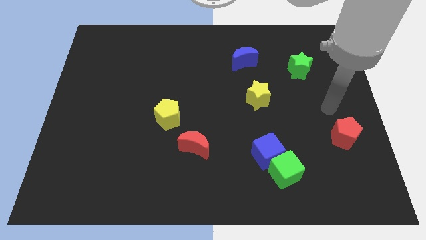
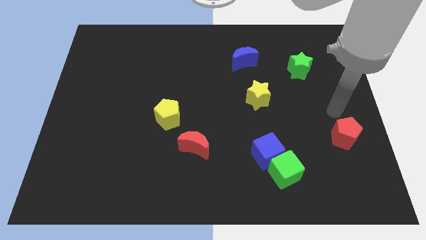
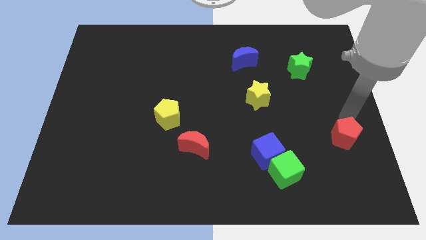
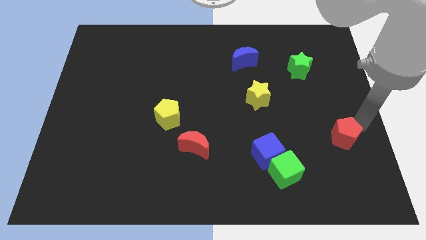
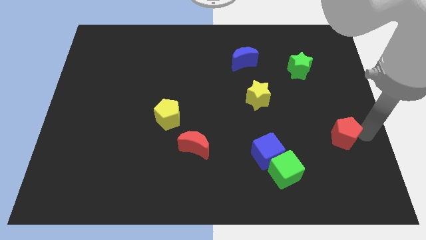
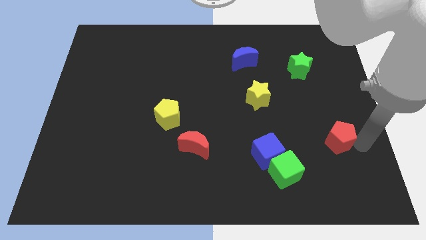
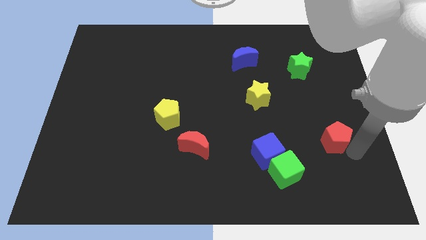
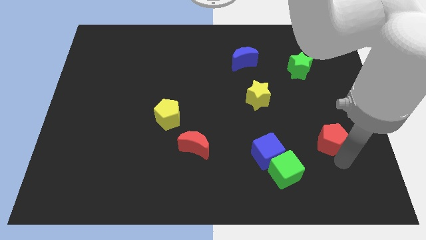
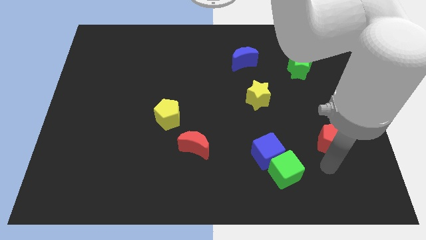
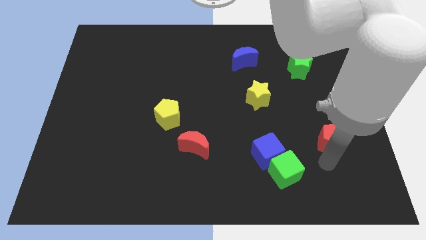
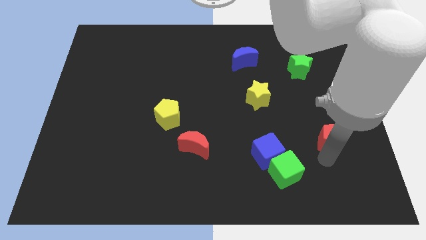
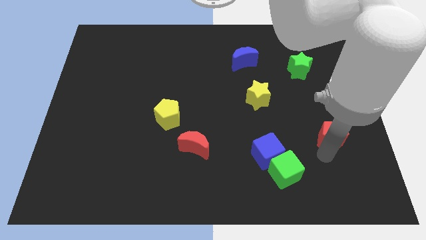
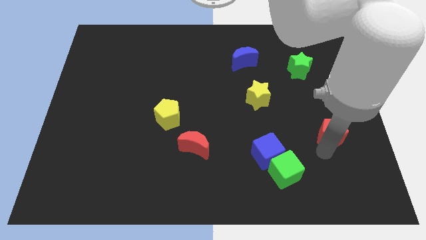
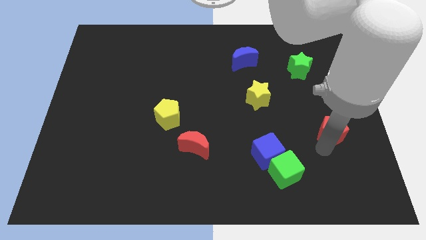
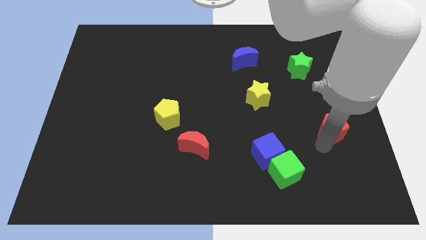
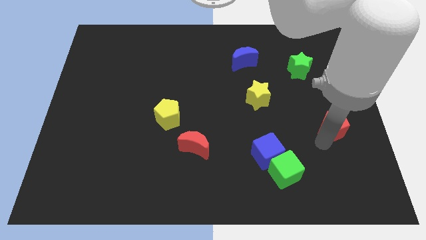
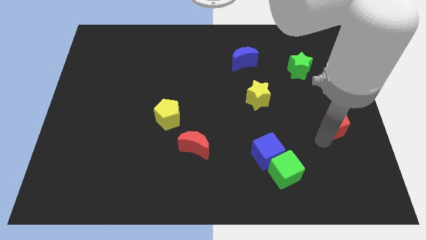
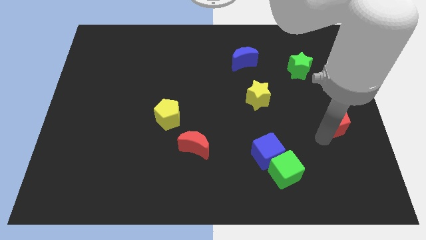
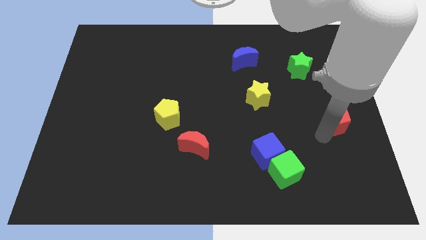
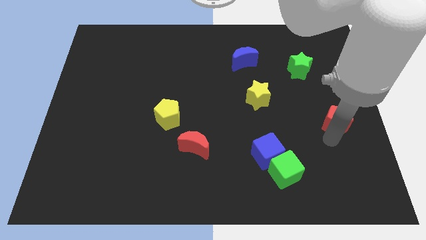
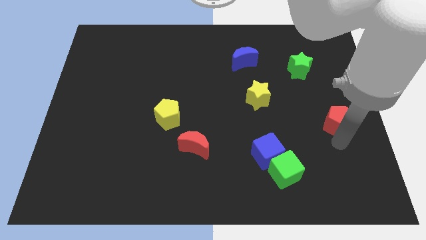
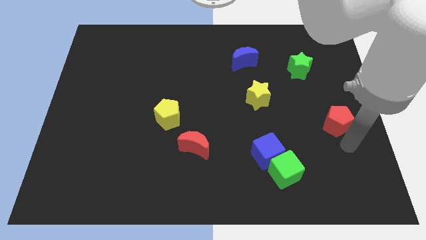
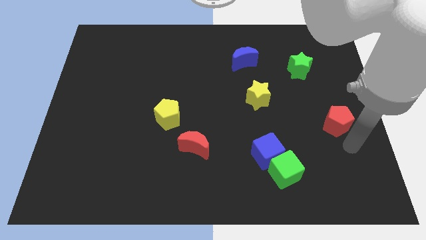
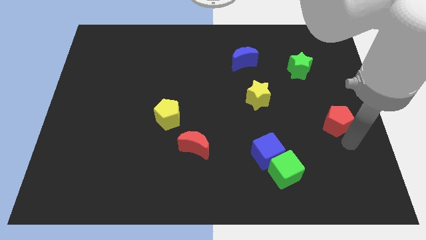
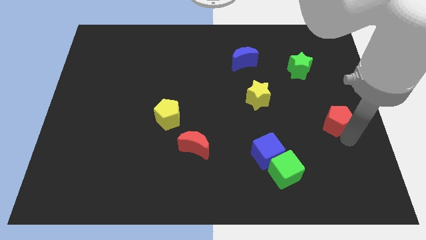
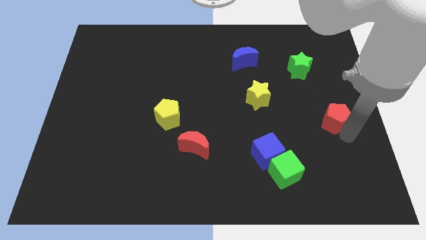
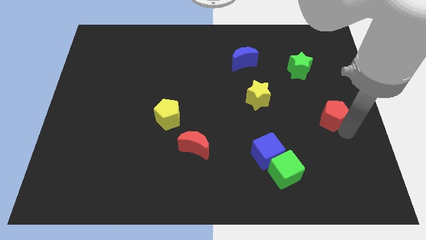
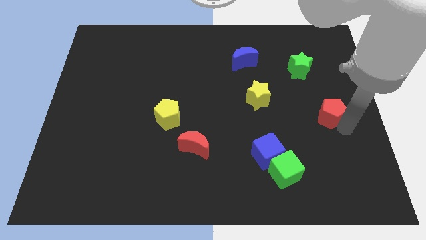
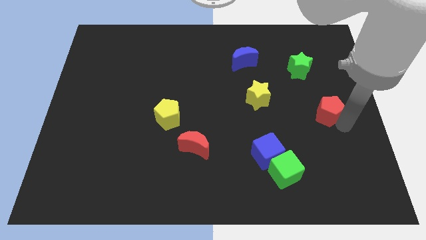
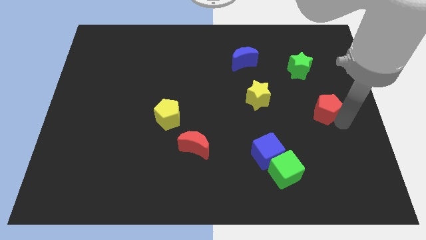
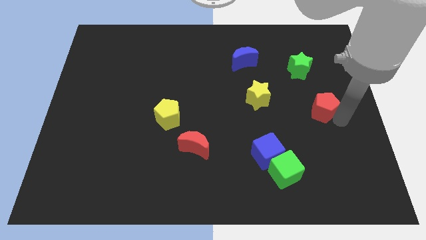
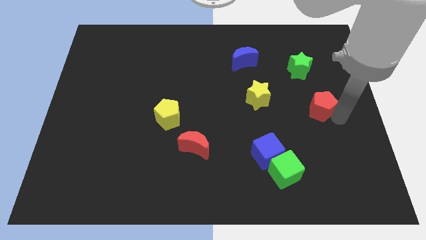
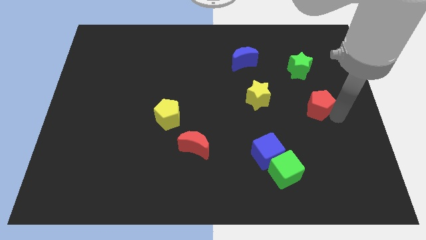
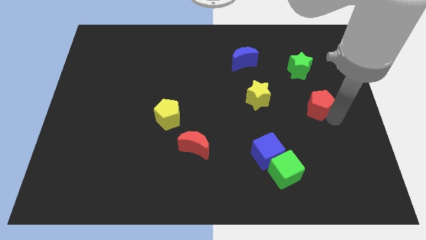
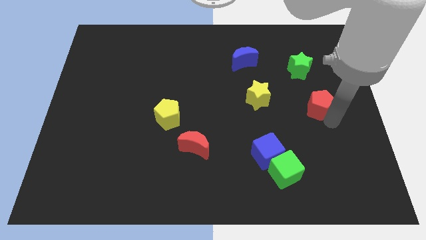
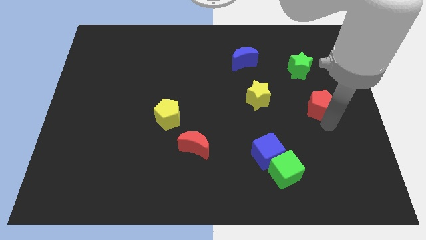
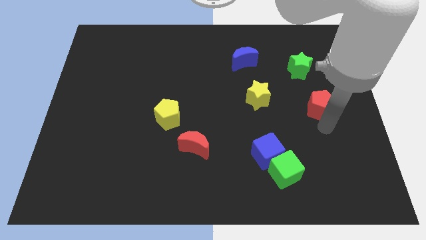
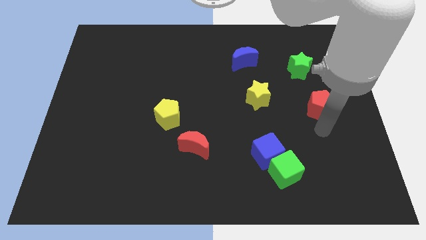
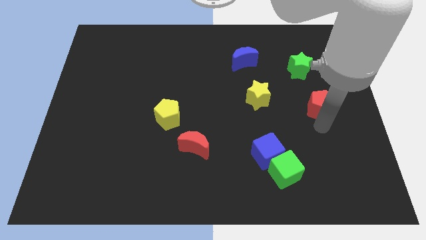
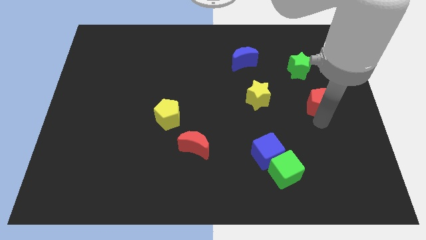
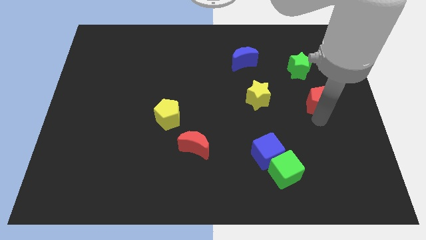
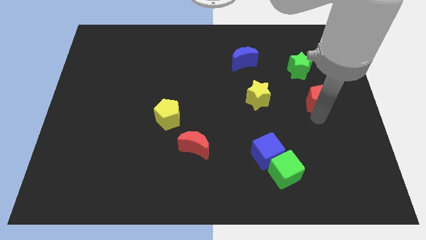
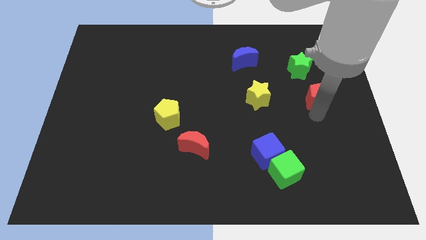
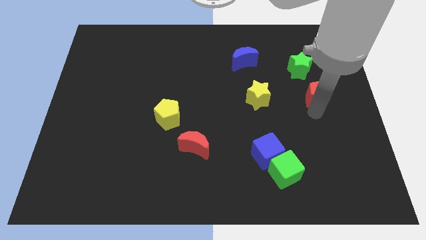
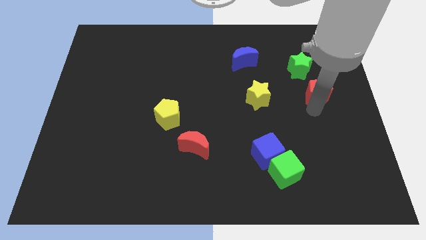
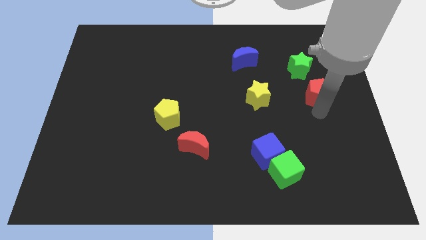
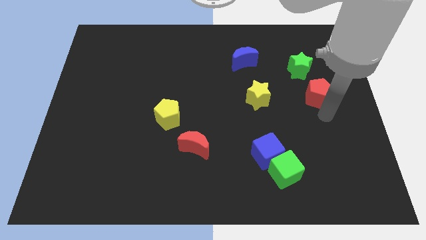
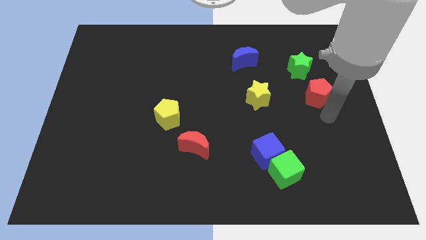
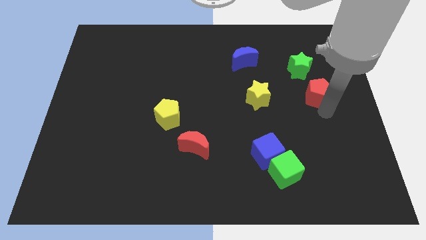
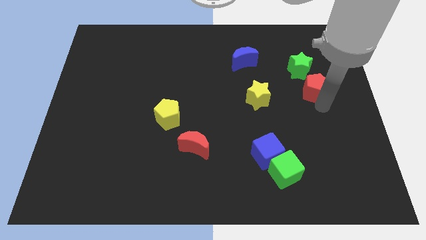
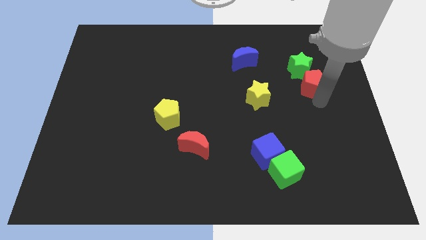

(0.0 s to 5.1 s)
put the red pentagon close to the green star

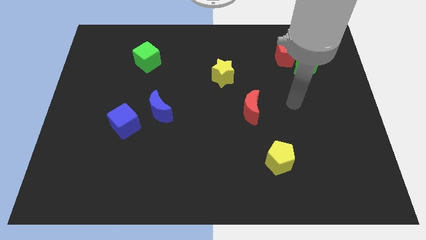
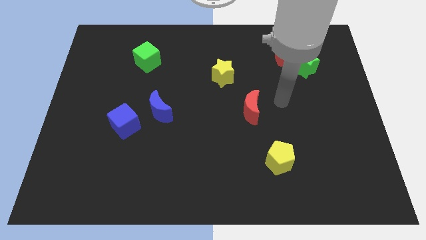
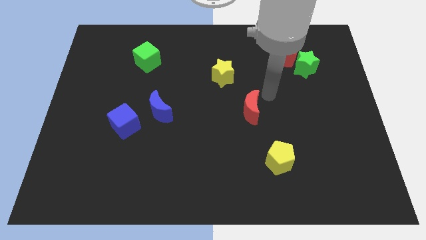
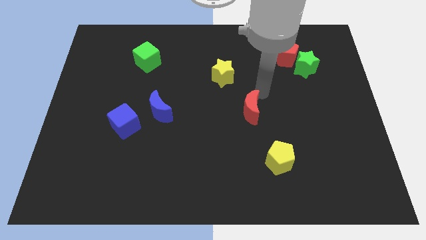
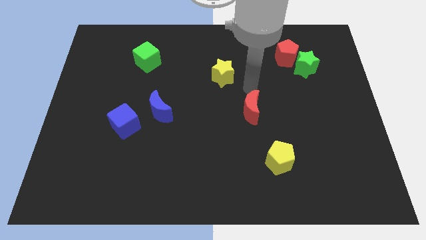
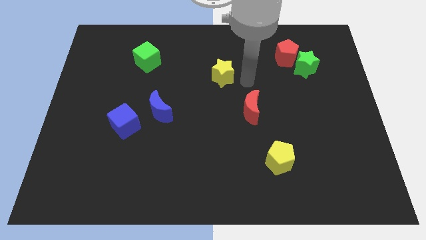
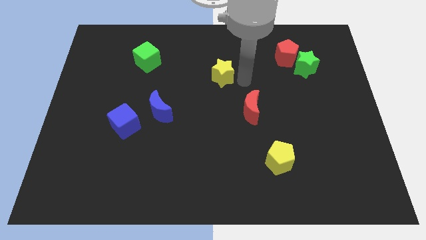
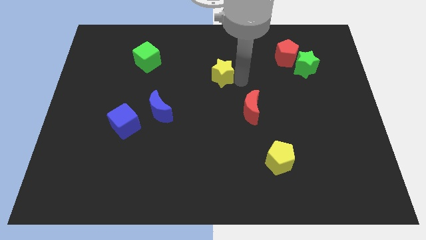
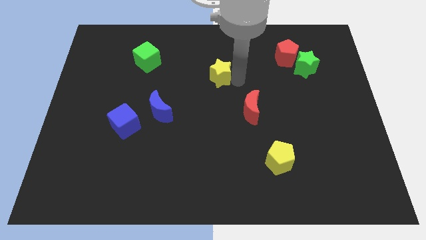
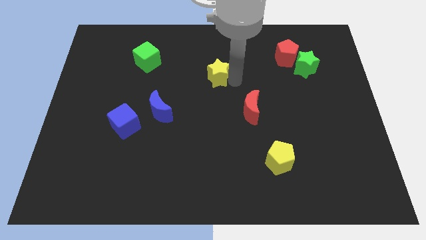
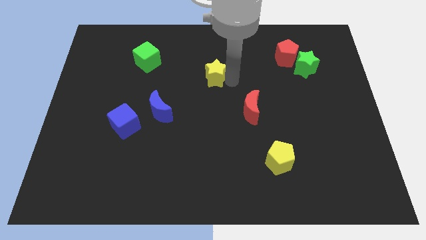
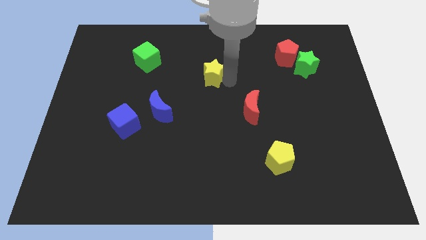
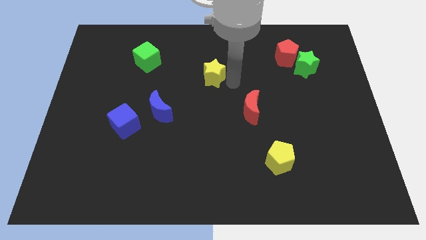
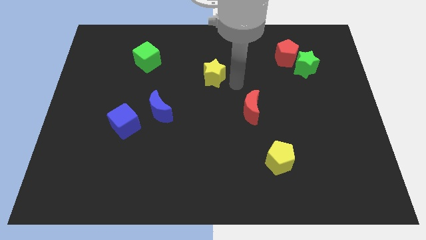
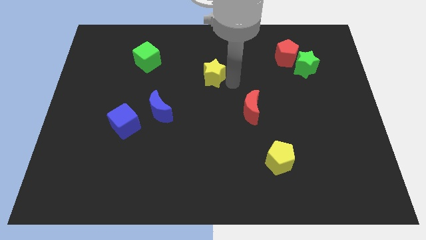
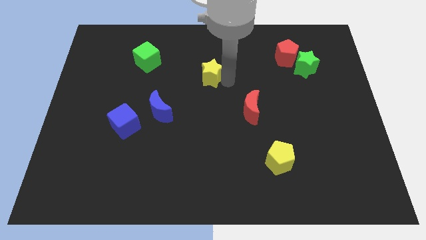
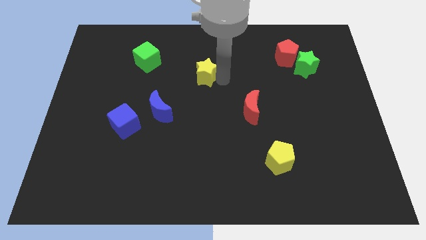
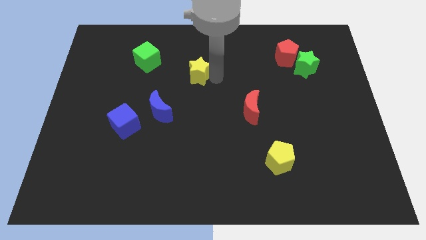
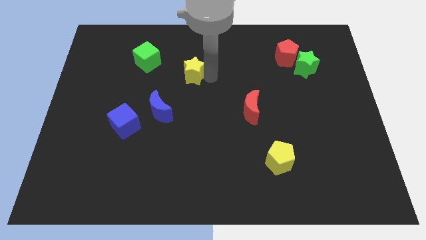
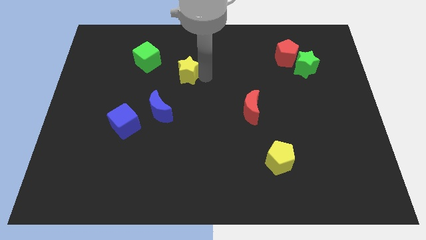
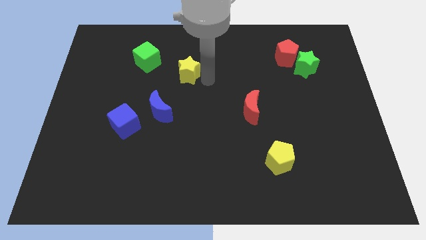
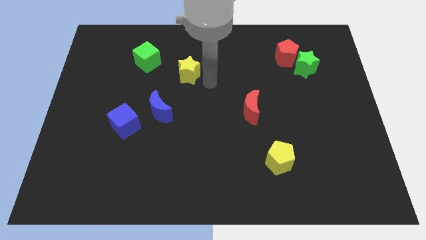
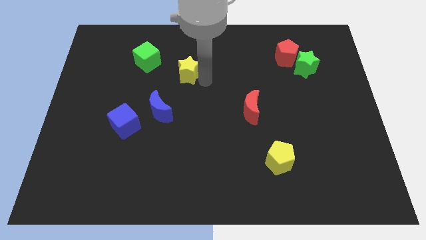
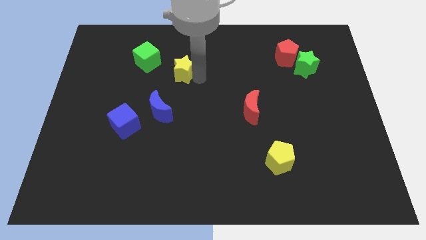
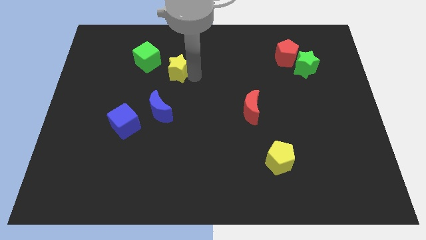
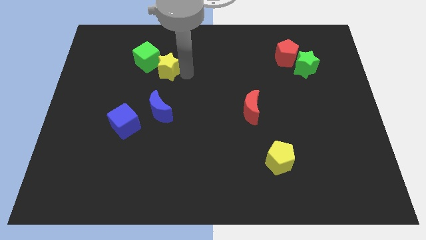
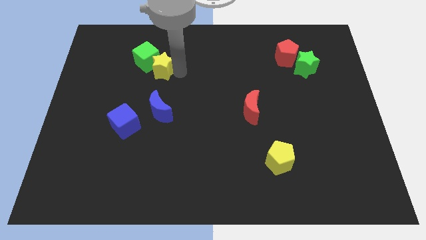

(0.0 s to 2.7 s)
put the yellow star next to the green cube
